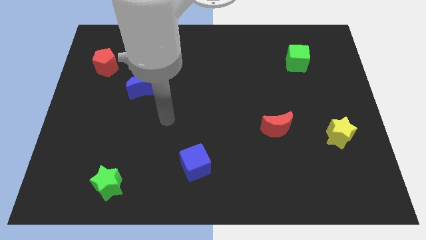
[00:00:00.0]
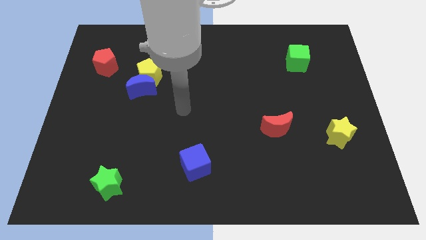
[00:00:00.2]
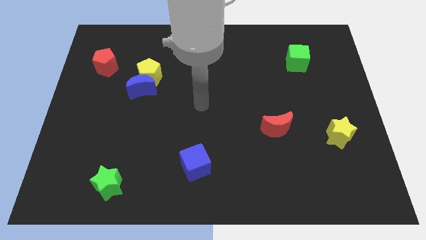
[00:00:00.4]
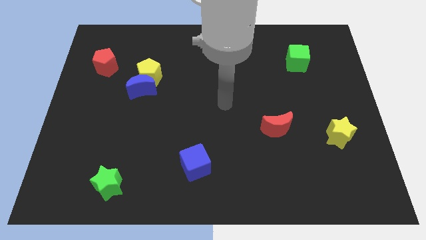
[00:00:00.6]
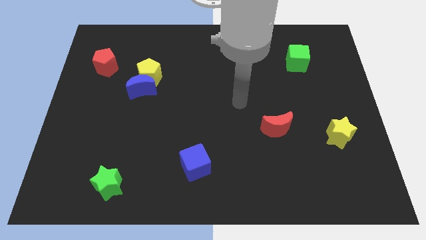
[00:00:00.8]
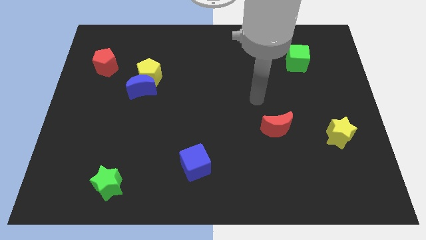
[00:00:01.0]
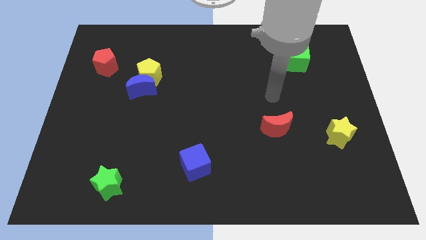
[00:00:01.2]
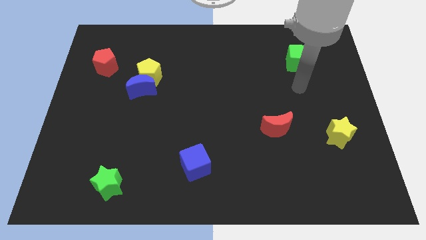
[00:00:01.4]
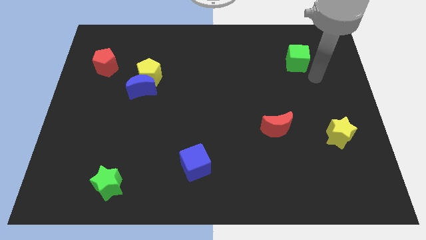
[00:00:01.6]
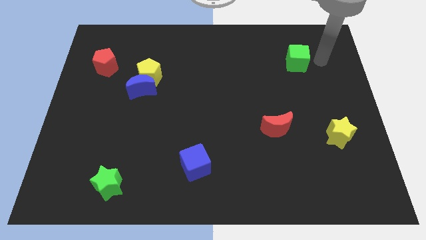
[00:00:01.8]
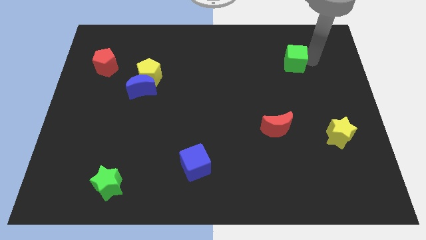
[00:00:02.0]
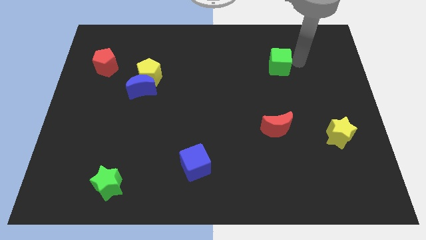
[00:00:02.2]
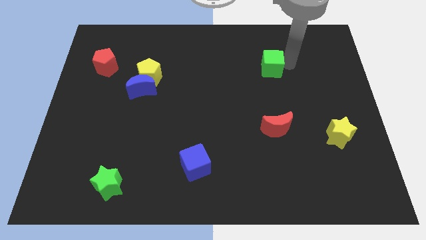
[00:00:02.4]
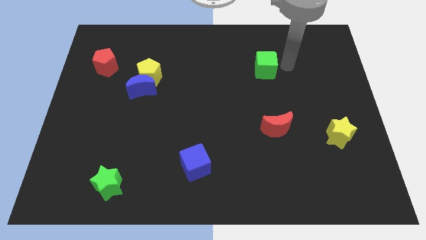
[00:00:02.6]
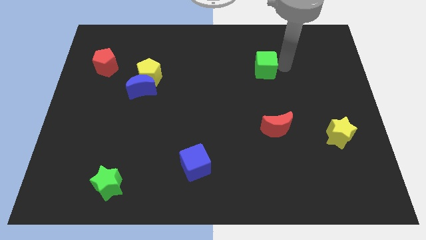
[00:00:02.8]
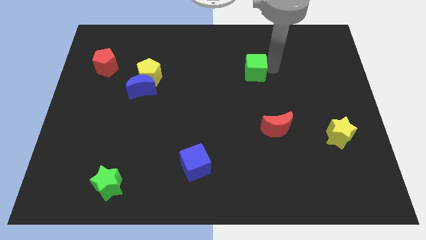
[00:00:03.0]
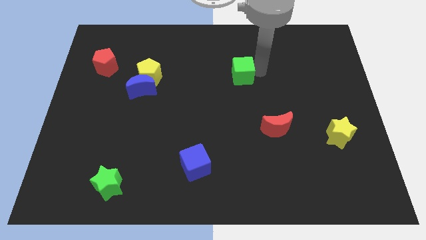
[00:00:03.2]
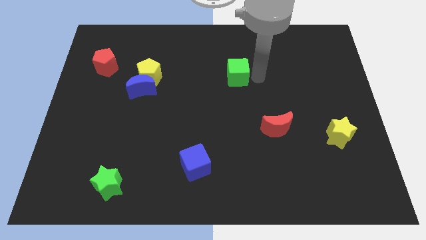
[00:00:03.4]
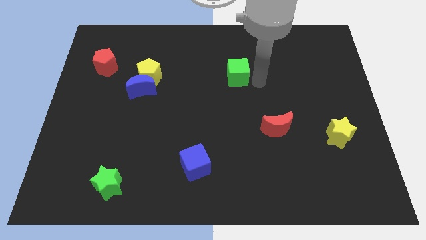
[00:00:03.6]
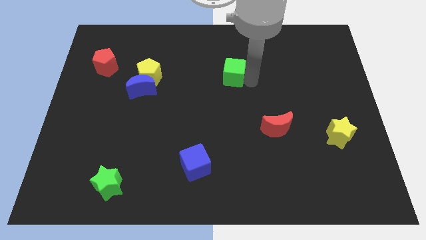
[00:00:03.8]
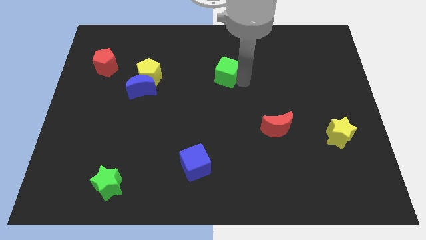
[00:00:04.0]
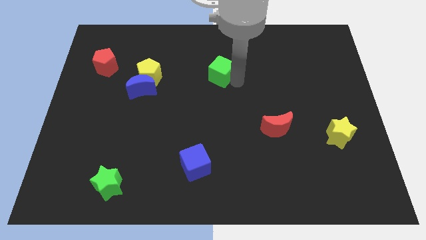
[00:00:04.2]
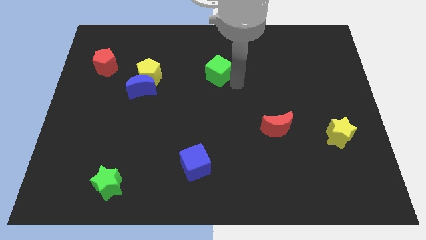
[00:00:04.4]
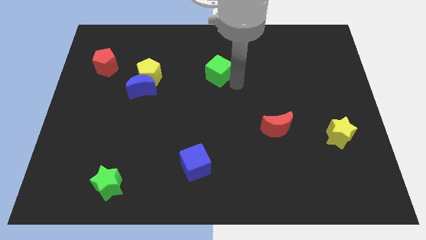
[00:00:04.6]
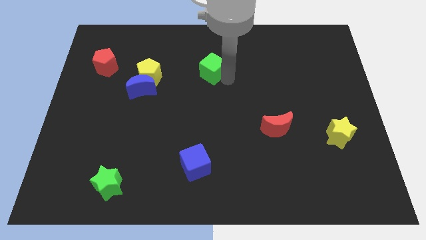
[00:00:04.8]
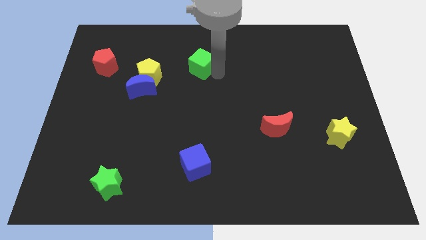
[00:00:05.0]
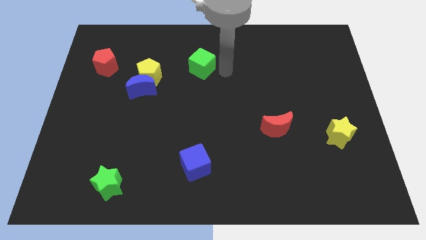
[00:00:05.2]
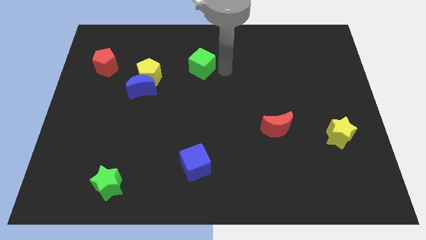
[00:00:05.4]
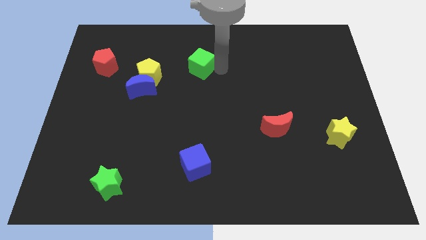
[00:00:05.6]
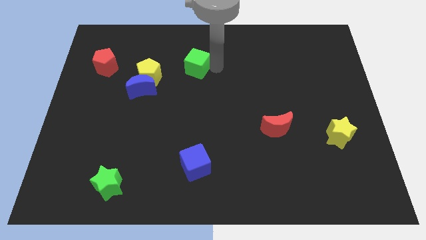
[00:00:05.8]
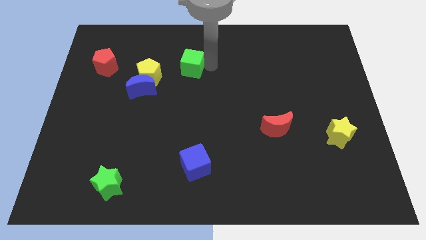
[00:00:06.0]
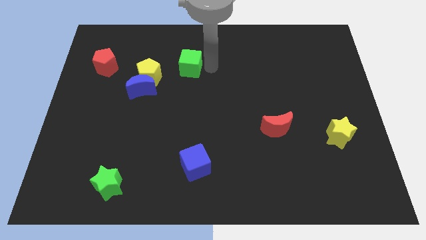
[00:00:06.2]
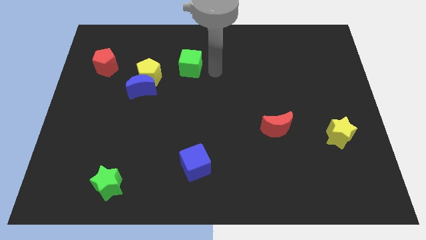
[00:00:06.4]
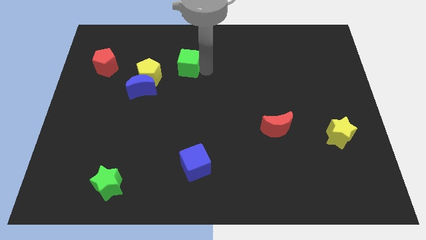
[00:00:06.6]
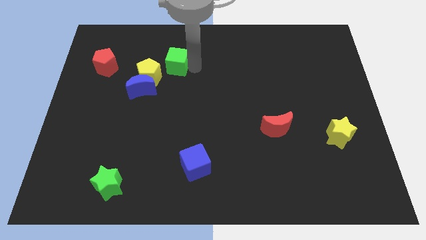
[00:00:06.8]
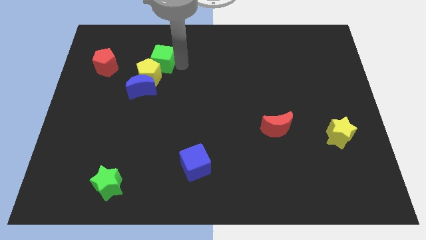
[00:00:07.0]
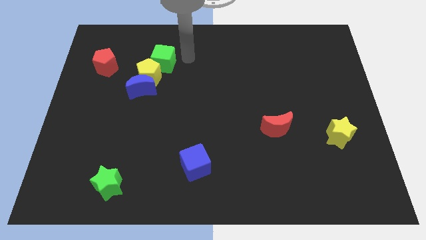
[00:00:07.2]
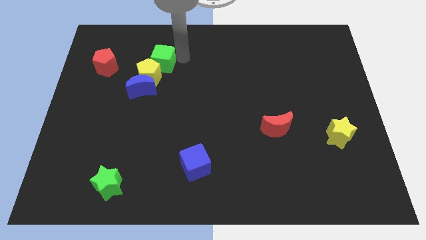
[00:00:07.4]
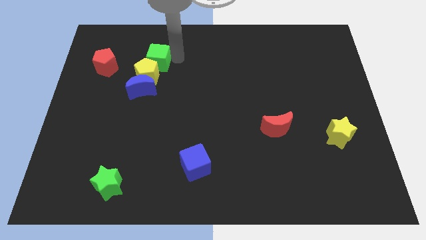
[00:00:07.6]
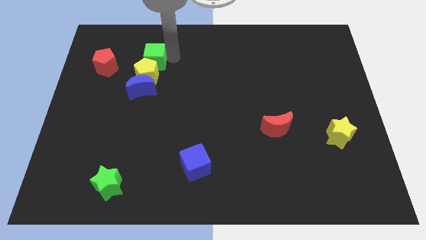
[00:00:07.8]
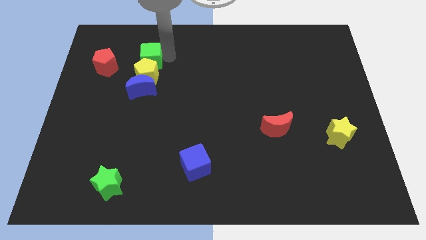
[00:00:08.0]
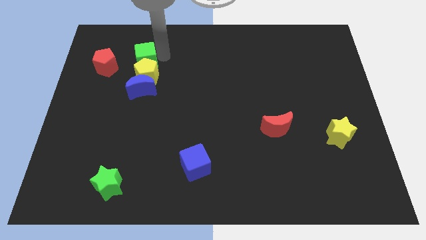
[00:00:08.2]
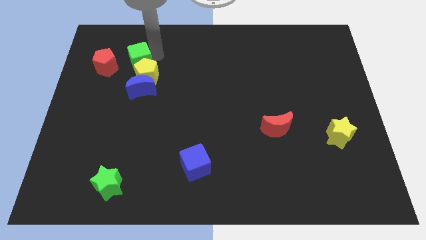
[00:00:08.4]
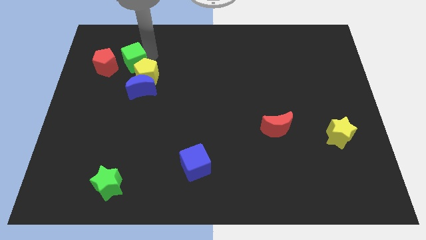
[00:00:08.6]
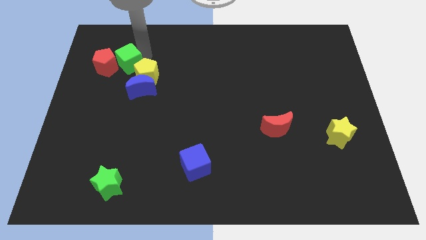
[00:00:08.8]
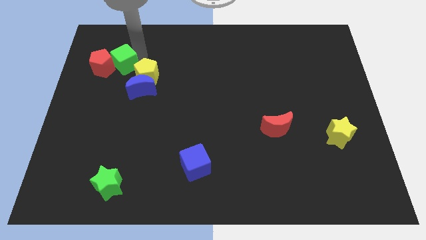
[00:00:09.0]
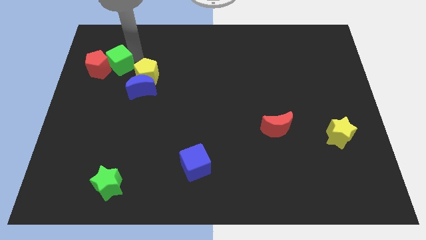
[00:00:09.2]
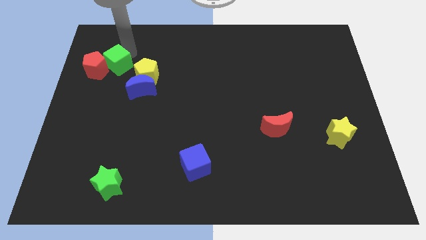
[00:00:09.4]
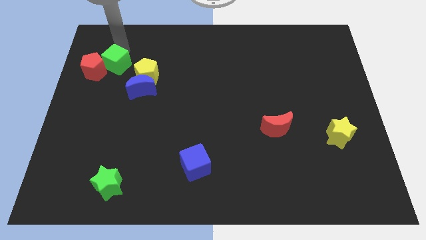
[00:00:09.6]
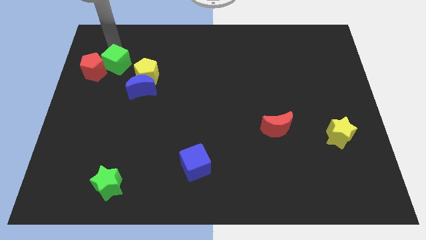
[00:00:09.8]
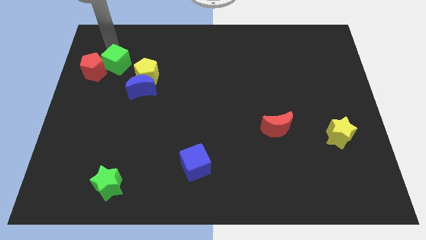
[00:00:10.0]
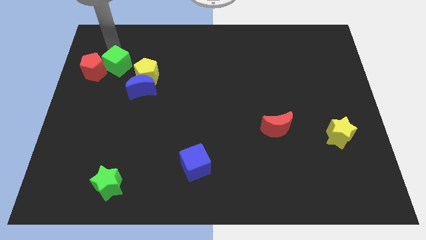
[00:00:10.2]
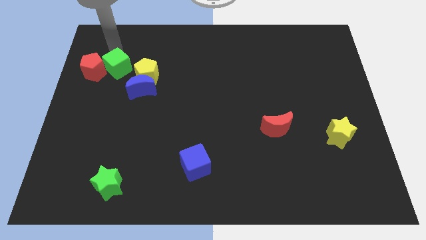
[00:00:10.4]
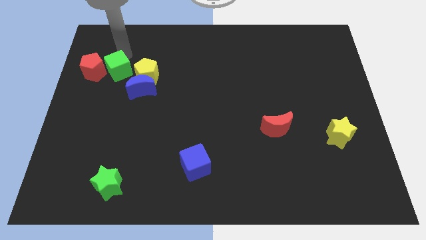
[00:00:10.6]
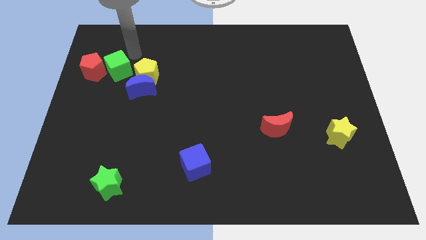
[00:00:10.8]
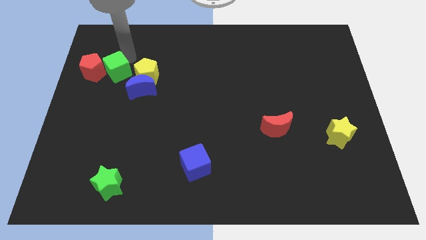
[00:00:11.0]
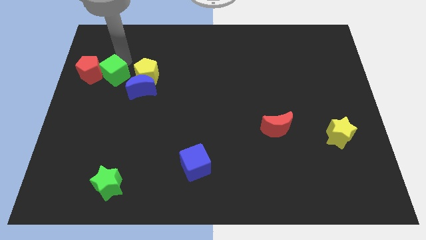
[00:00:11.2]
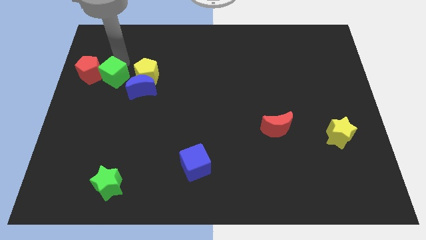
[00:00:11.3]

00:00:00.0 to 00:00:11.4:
put the green cube to the left of the blue moon

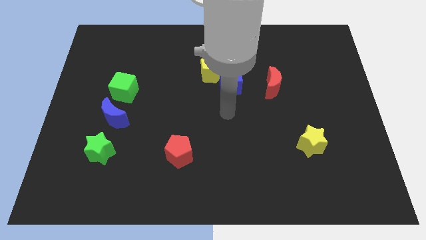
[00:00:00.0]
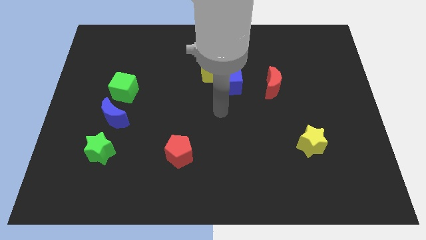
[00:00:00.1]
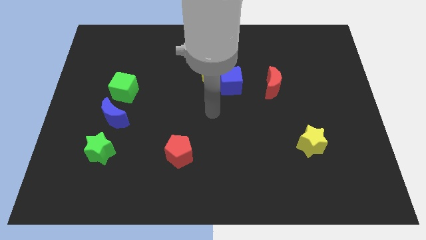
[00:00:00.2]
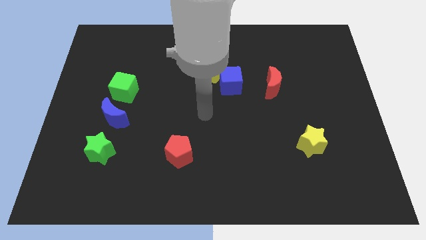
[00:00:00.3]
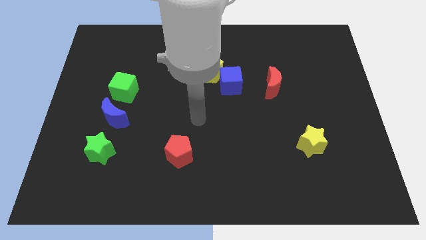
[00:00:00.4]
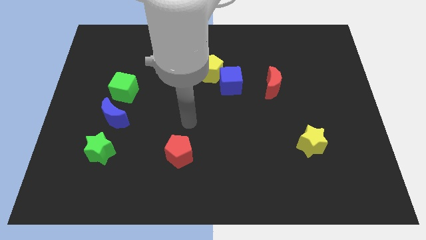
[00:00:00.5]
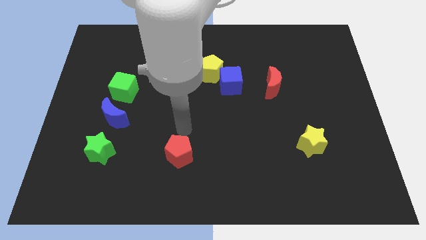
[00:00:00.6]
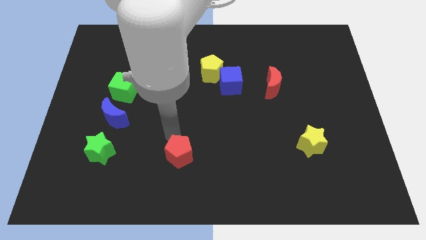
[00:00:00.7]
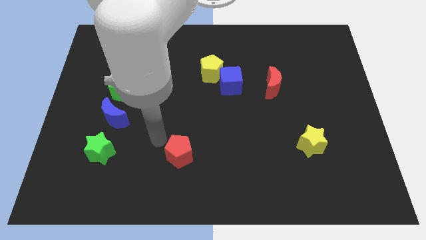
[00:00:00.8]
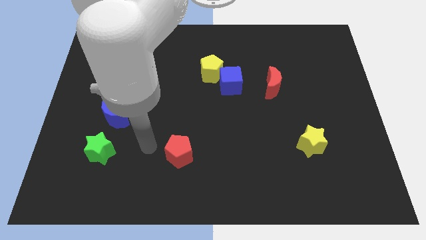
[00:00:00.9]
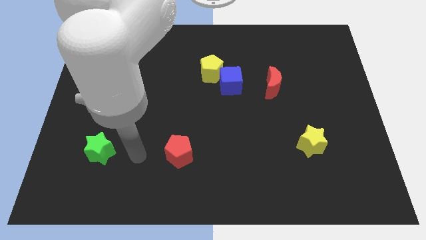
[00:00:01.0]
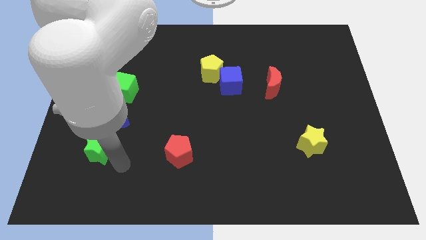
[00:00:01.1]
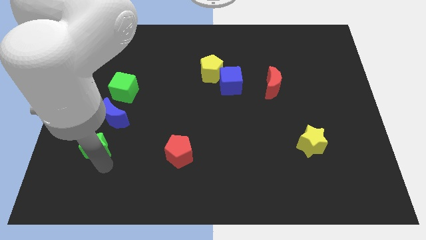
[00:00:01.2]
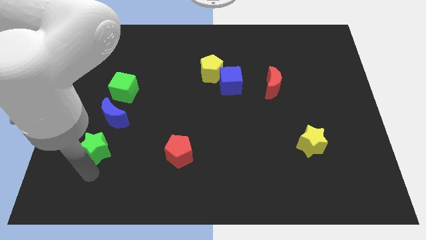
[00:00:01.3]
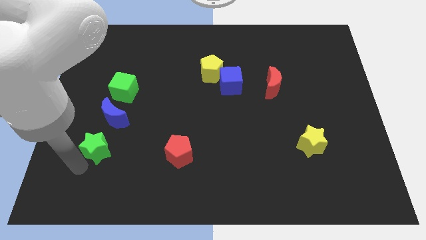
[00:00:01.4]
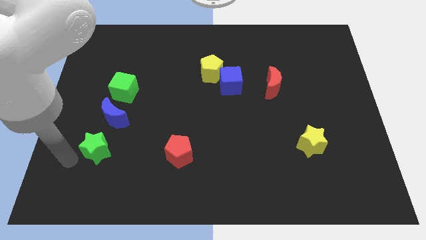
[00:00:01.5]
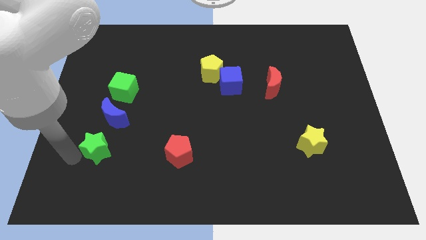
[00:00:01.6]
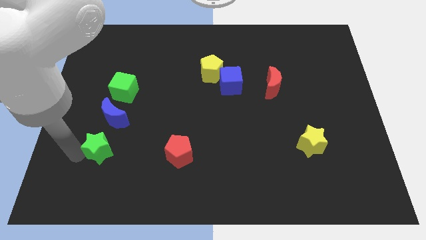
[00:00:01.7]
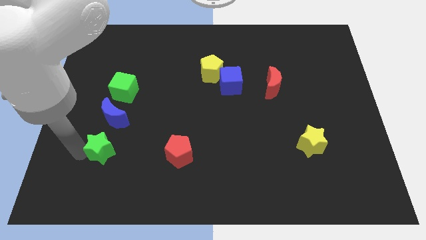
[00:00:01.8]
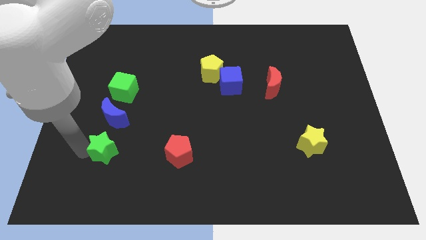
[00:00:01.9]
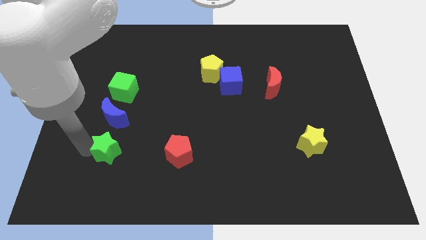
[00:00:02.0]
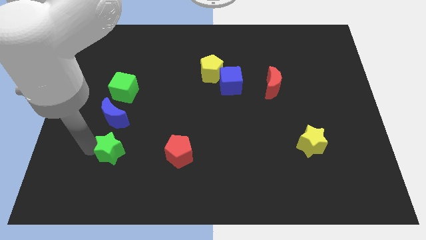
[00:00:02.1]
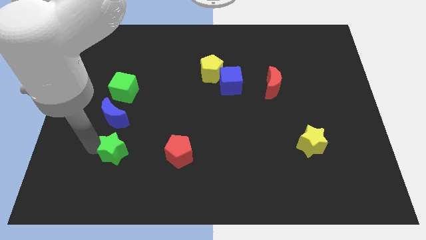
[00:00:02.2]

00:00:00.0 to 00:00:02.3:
push the green star diagonally down and to the right of the blue moon
